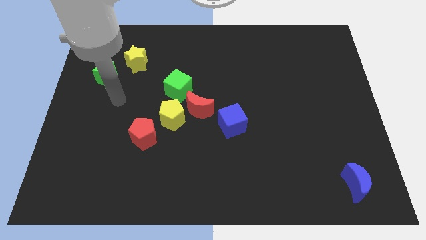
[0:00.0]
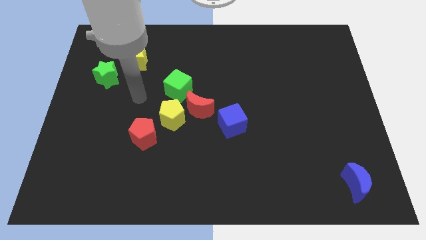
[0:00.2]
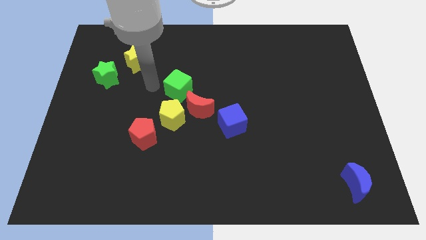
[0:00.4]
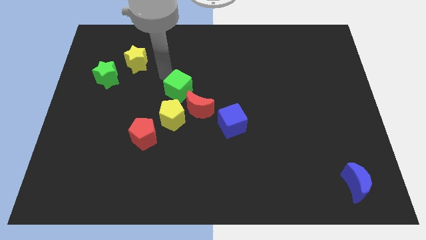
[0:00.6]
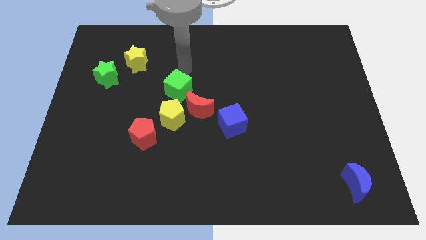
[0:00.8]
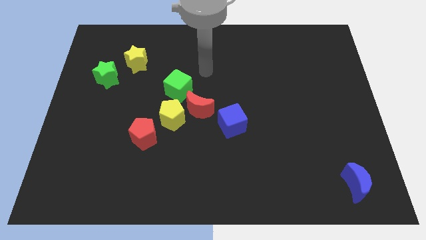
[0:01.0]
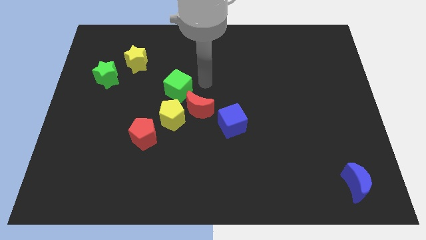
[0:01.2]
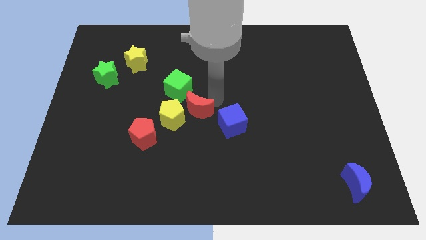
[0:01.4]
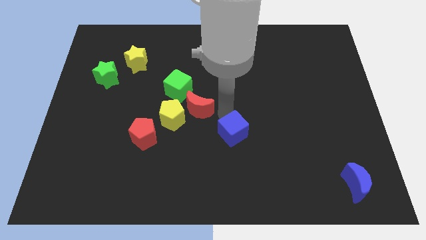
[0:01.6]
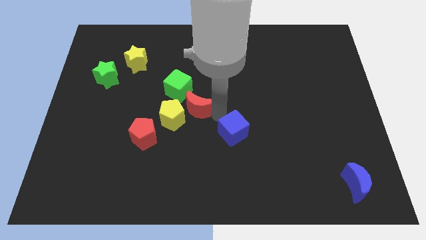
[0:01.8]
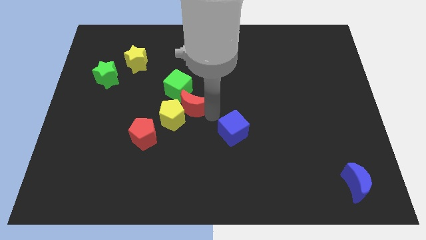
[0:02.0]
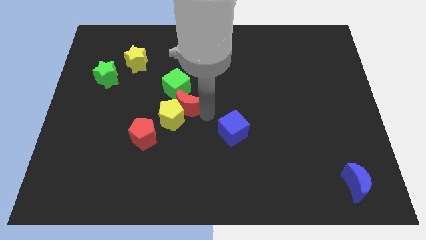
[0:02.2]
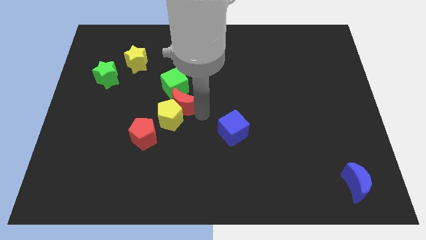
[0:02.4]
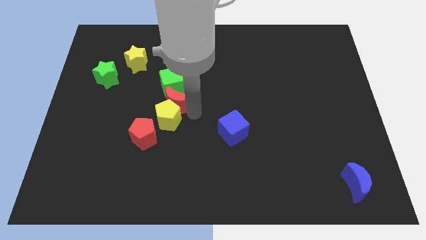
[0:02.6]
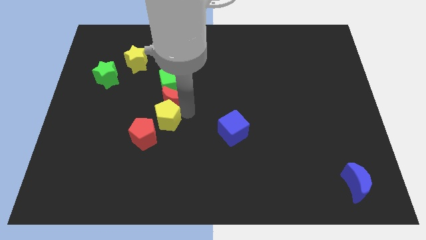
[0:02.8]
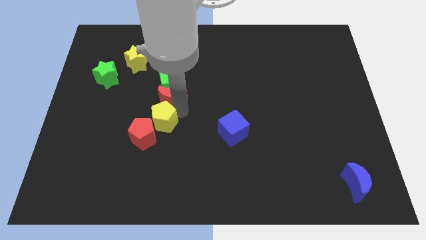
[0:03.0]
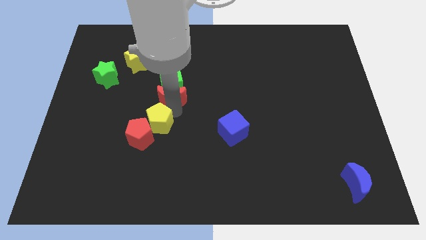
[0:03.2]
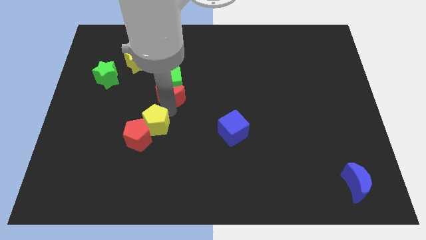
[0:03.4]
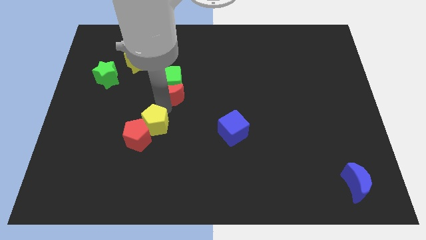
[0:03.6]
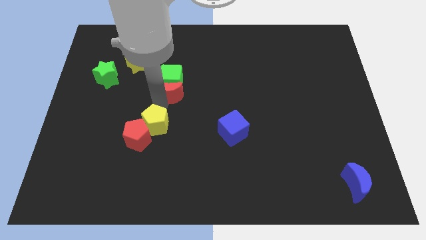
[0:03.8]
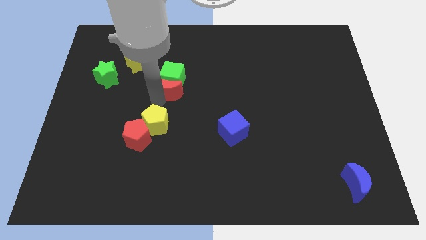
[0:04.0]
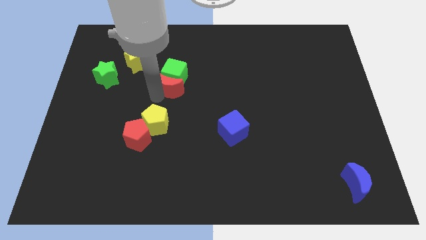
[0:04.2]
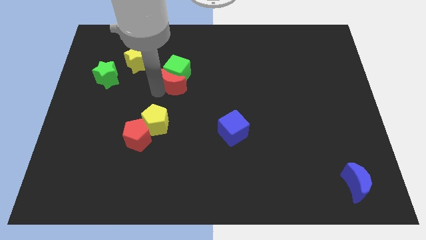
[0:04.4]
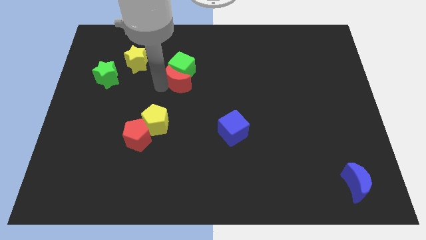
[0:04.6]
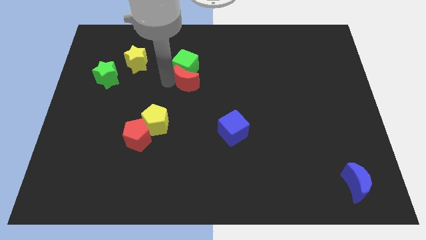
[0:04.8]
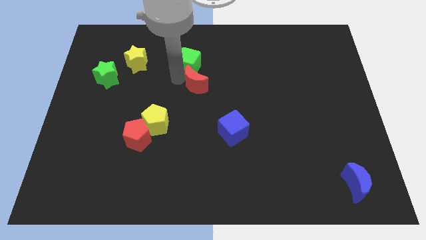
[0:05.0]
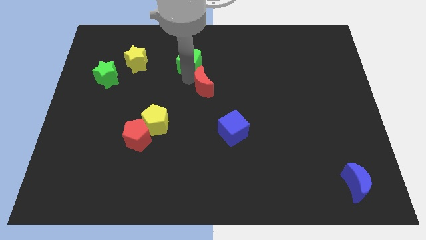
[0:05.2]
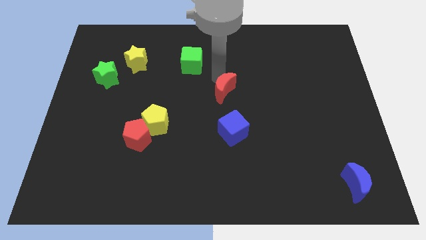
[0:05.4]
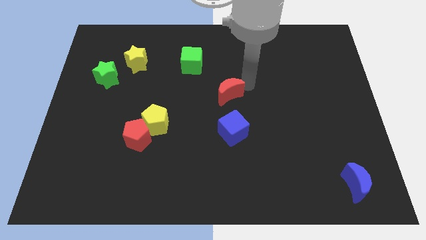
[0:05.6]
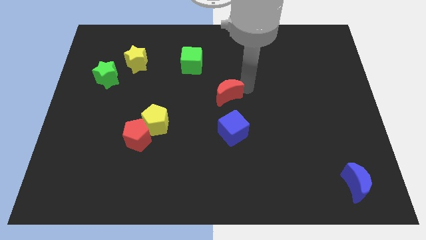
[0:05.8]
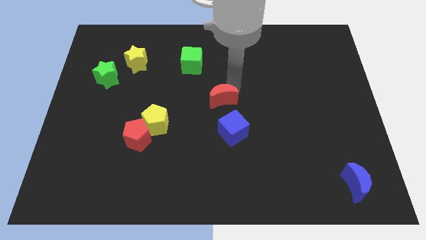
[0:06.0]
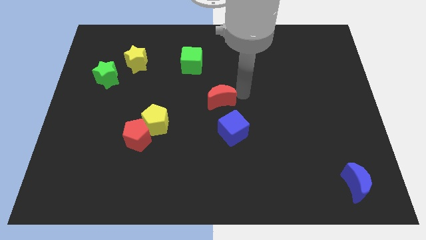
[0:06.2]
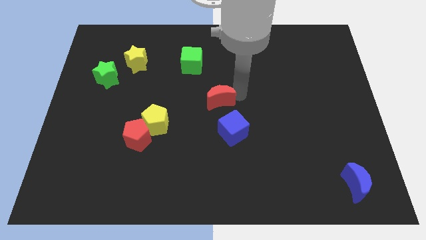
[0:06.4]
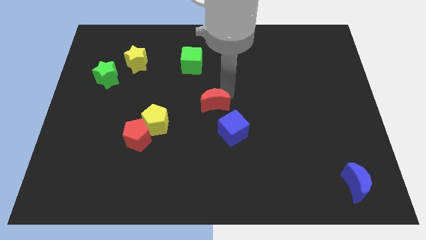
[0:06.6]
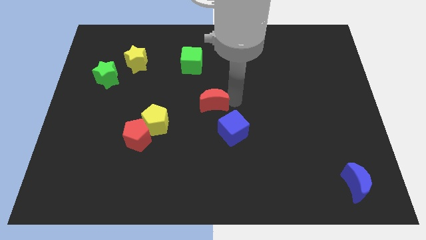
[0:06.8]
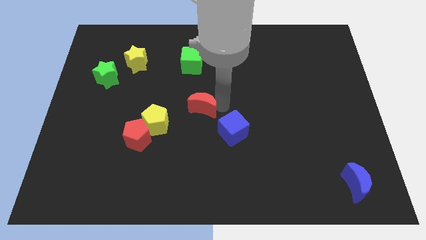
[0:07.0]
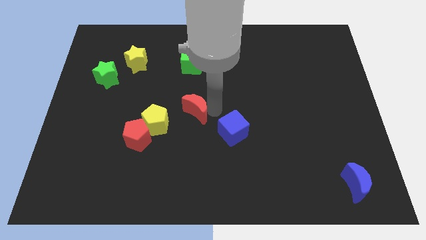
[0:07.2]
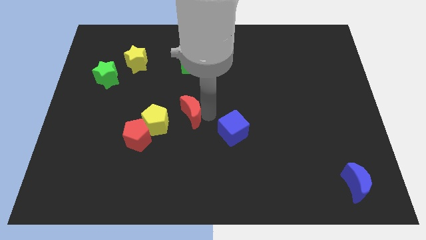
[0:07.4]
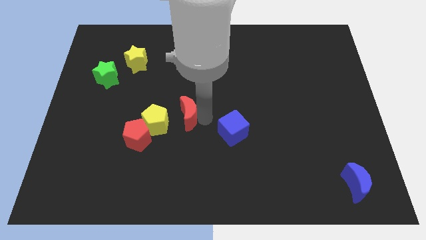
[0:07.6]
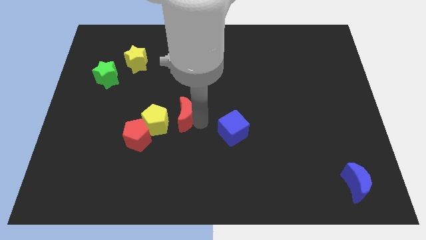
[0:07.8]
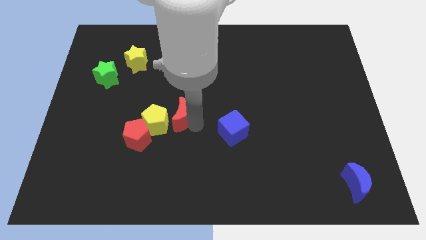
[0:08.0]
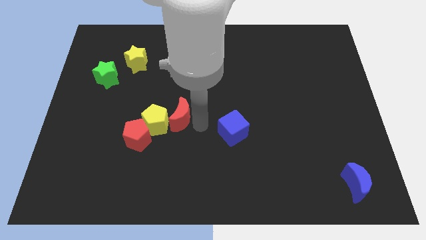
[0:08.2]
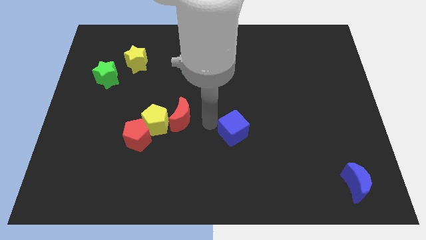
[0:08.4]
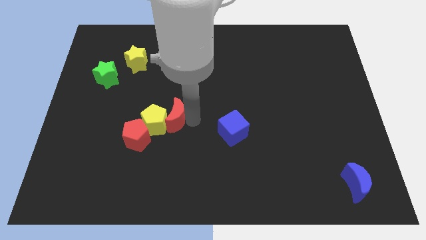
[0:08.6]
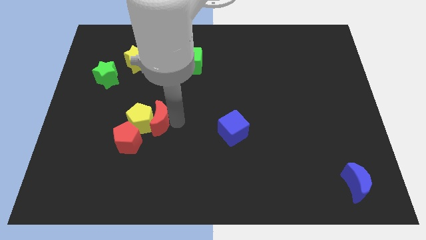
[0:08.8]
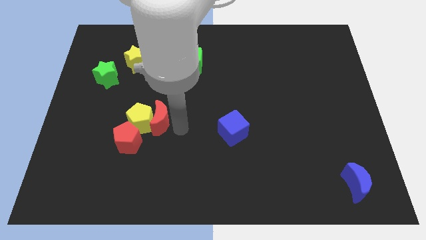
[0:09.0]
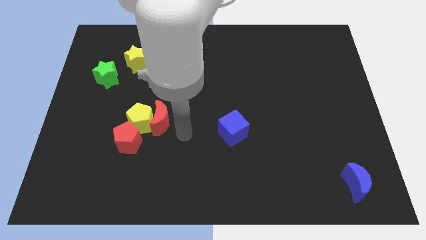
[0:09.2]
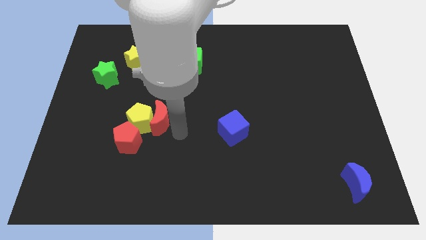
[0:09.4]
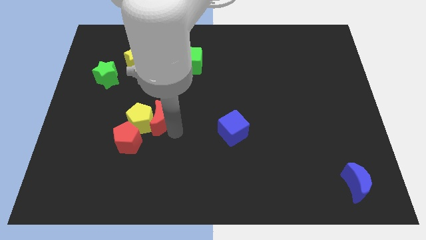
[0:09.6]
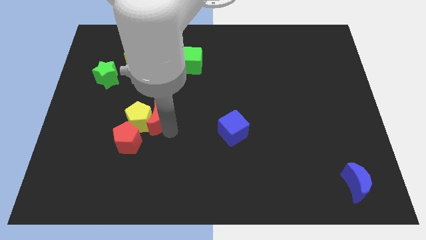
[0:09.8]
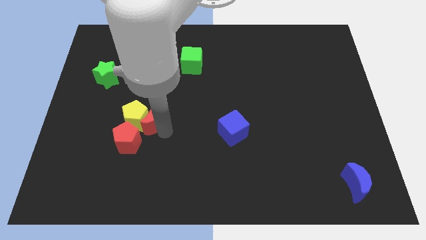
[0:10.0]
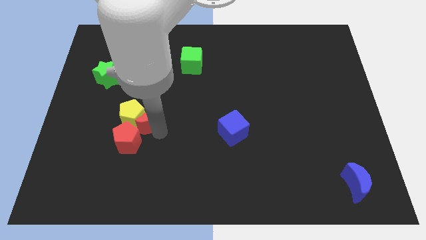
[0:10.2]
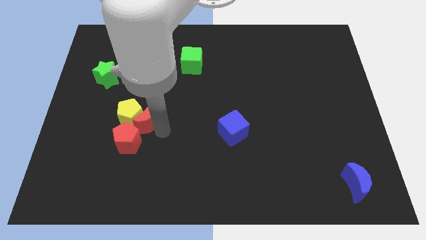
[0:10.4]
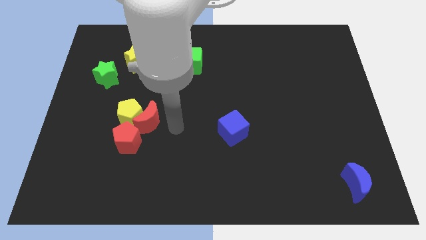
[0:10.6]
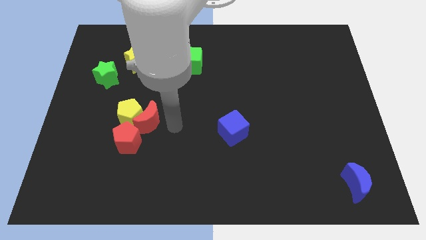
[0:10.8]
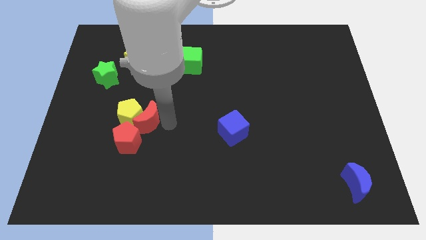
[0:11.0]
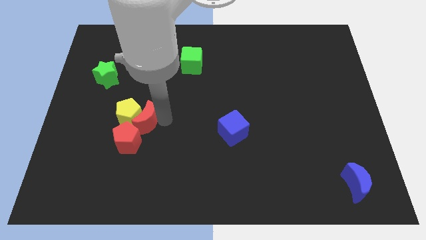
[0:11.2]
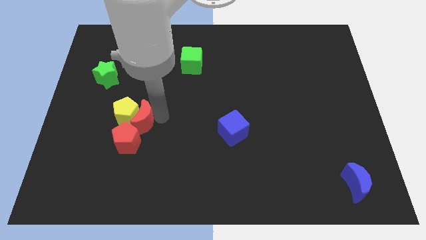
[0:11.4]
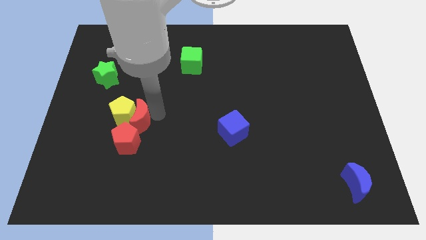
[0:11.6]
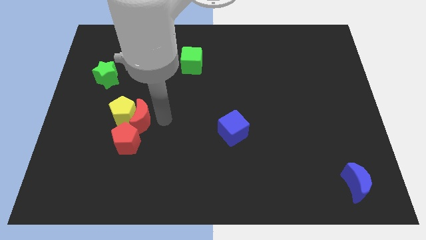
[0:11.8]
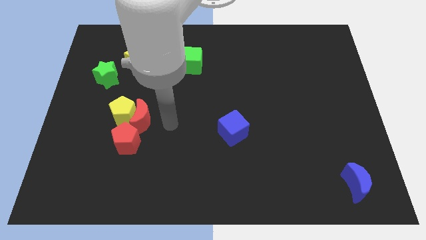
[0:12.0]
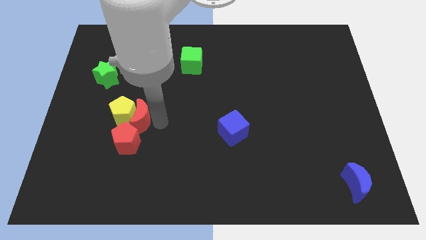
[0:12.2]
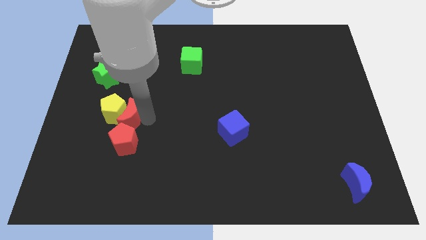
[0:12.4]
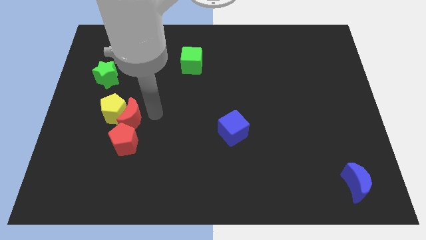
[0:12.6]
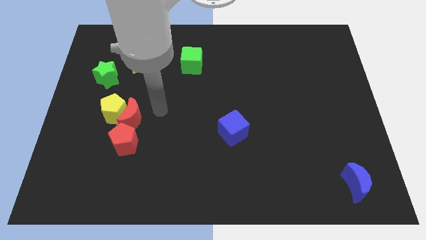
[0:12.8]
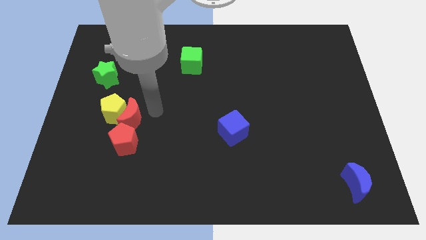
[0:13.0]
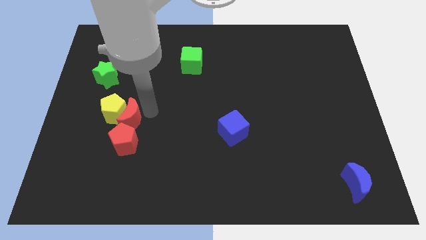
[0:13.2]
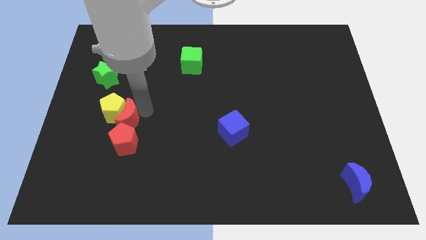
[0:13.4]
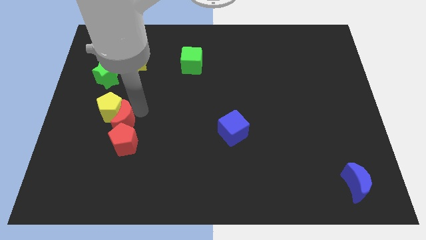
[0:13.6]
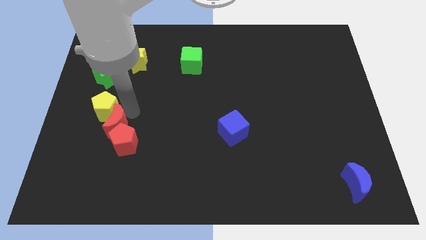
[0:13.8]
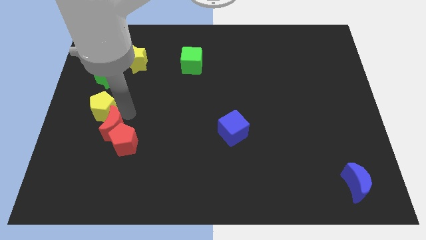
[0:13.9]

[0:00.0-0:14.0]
put the red moon left of the red pentagon
